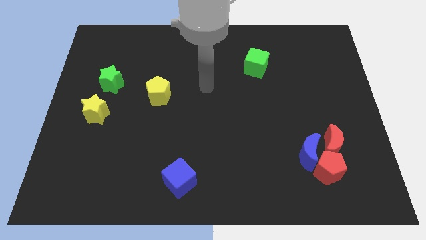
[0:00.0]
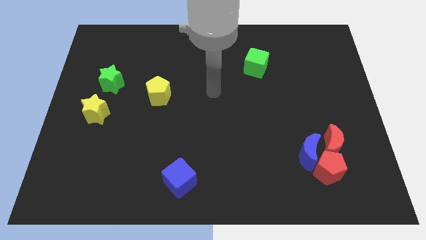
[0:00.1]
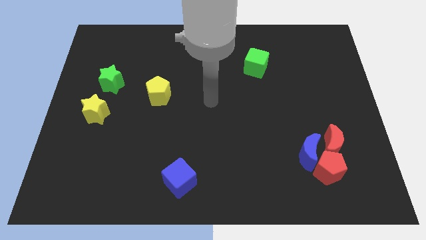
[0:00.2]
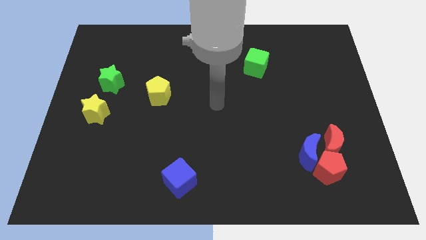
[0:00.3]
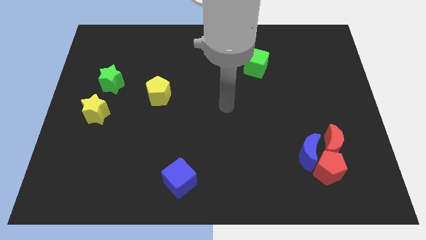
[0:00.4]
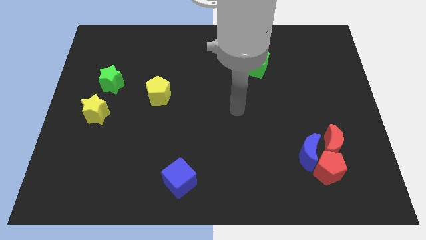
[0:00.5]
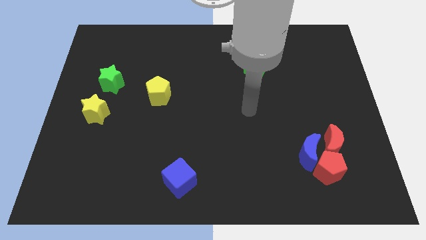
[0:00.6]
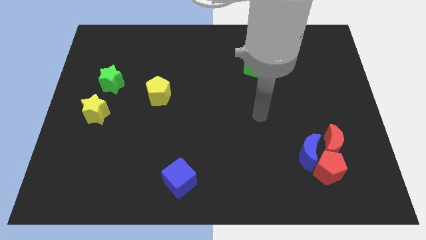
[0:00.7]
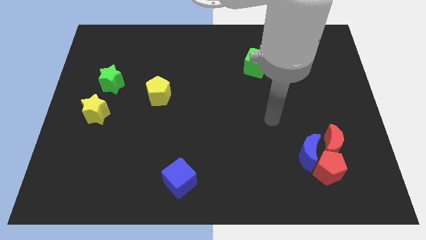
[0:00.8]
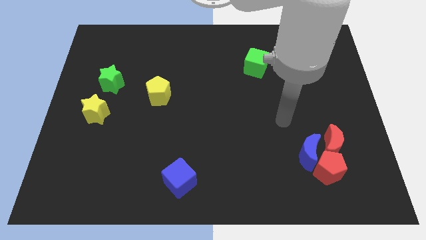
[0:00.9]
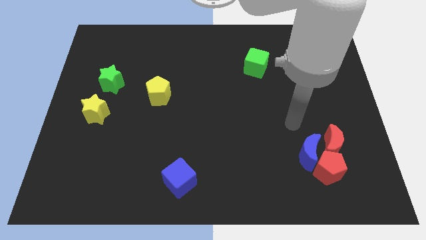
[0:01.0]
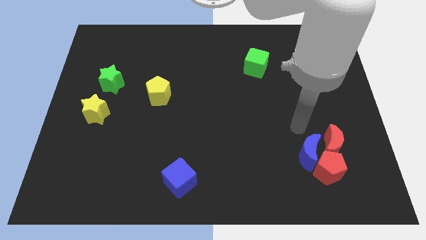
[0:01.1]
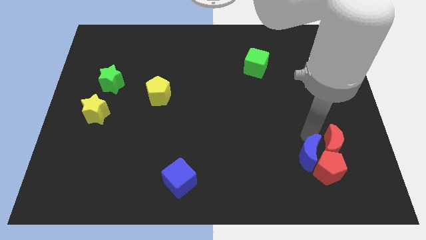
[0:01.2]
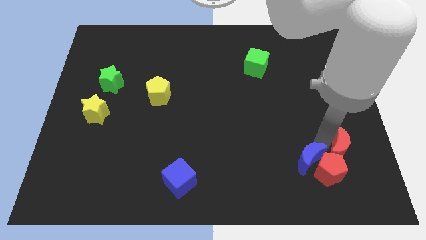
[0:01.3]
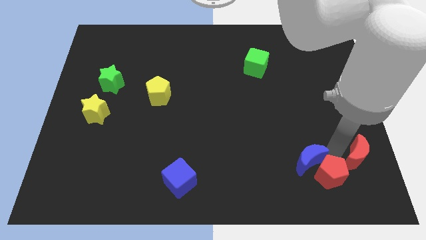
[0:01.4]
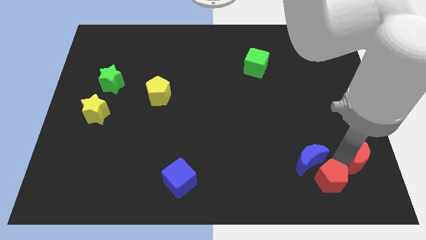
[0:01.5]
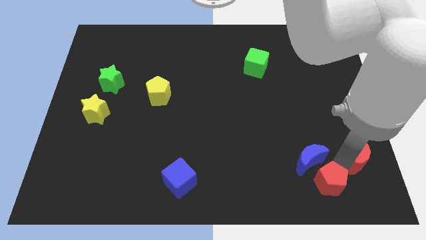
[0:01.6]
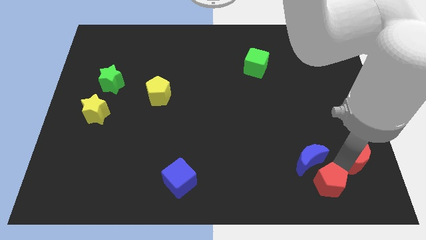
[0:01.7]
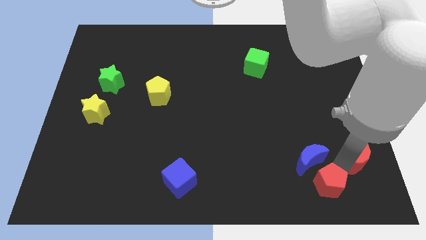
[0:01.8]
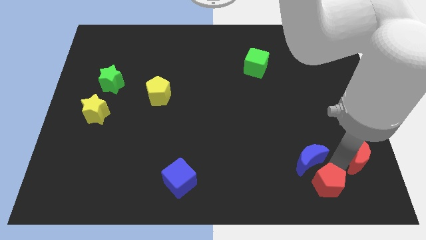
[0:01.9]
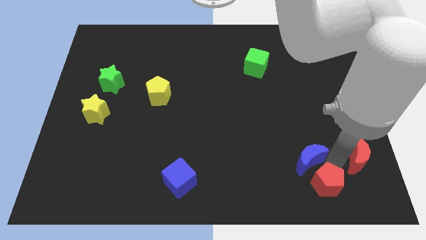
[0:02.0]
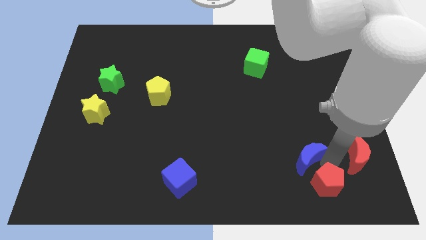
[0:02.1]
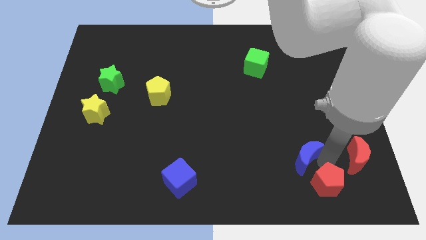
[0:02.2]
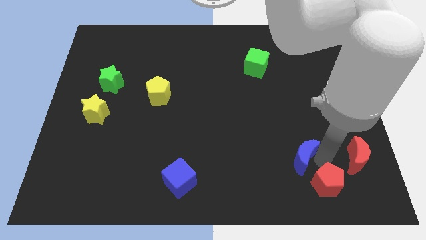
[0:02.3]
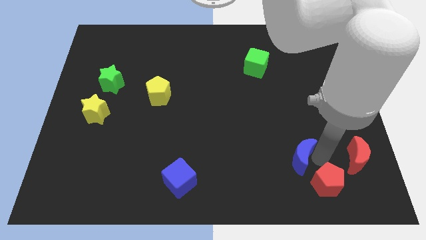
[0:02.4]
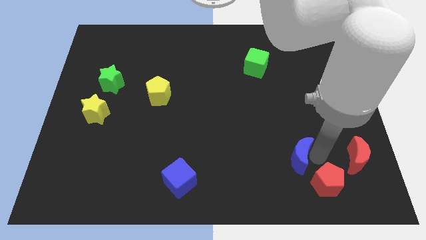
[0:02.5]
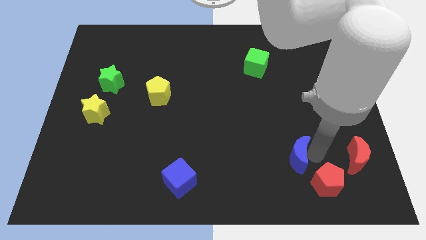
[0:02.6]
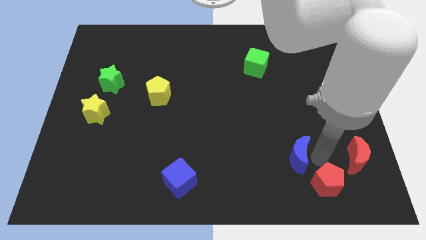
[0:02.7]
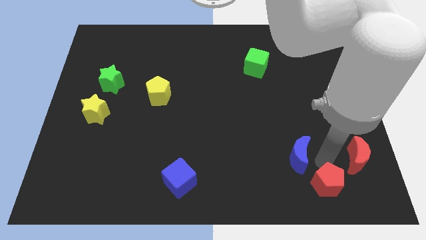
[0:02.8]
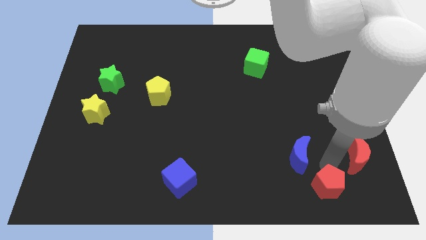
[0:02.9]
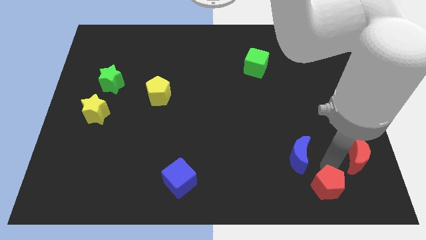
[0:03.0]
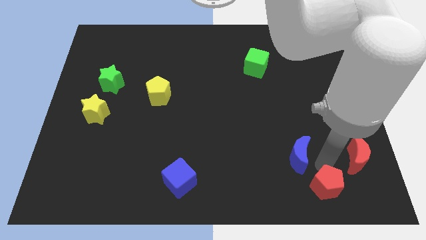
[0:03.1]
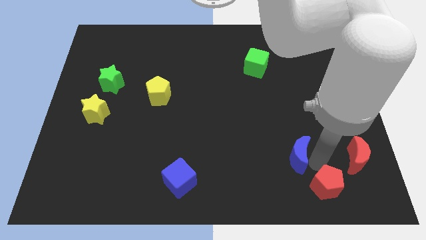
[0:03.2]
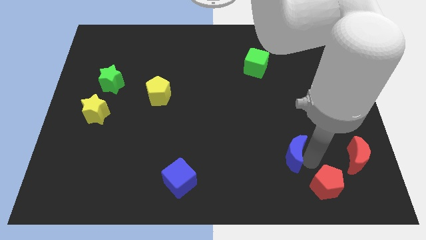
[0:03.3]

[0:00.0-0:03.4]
separate the blue moon from the red pentagon and red moon

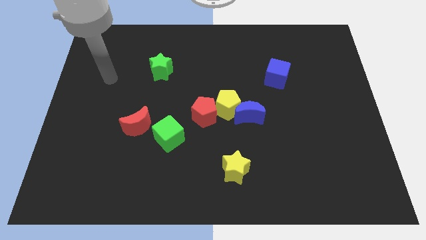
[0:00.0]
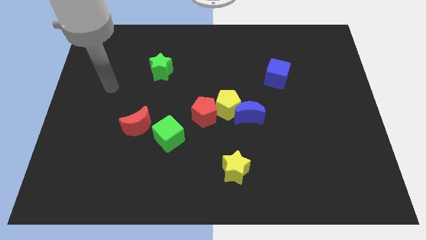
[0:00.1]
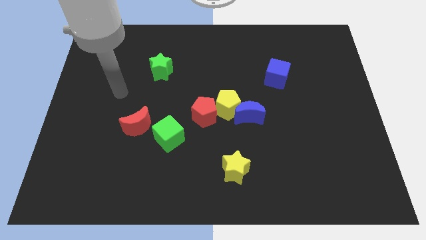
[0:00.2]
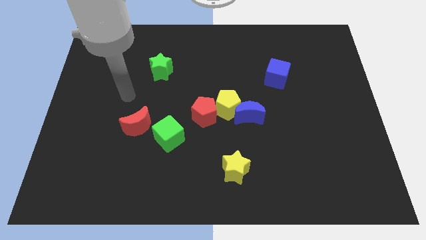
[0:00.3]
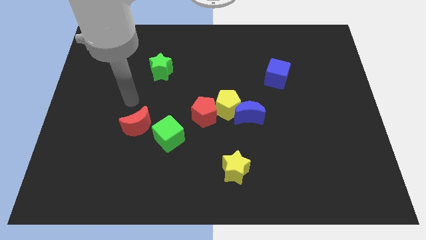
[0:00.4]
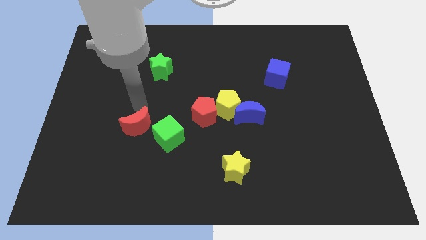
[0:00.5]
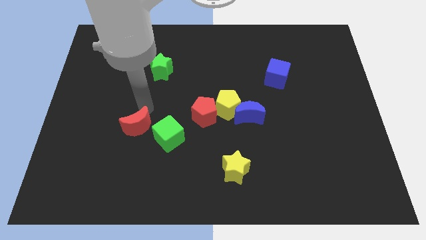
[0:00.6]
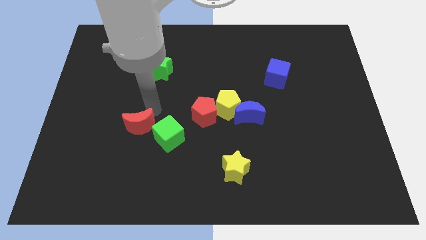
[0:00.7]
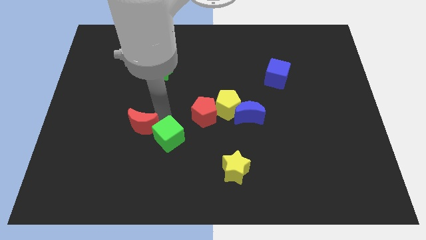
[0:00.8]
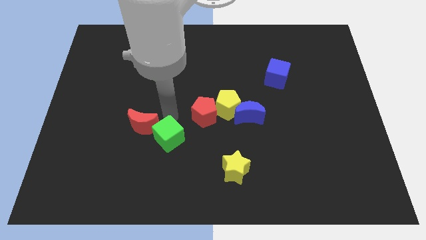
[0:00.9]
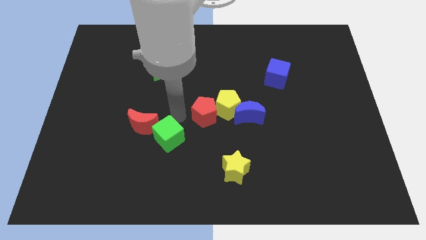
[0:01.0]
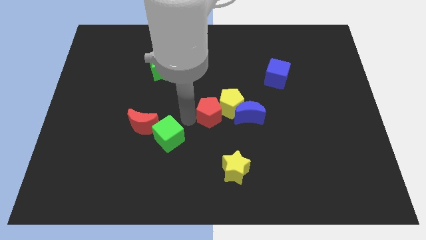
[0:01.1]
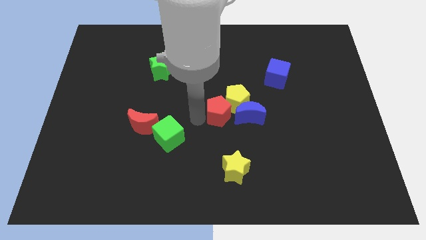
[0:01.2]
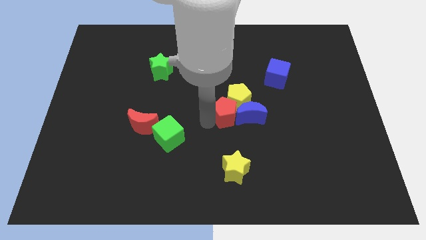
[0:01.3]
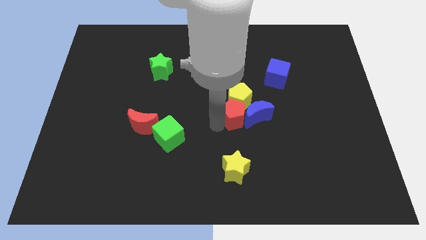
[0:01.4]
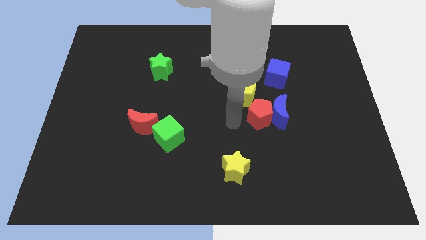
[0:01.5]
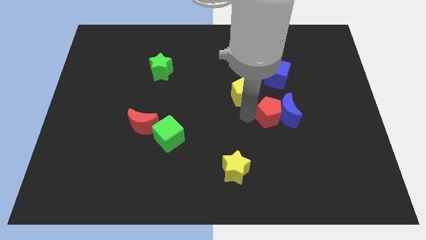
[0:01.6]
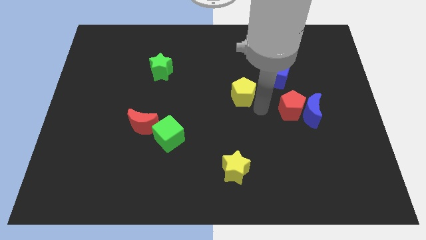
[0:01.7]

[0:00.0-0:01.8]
move the yellow pentagon away from the blue moon and red pentagon

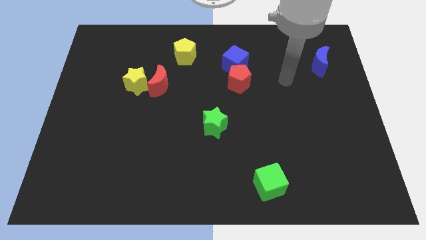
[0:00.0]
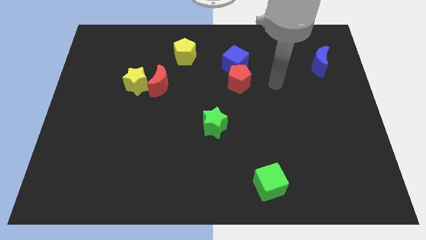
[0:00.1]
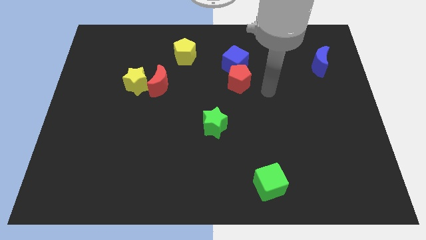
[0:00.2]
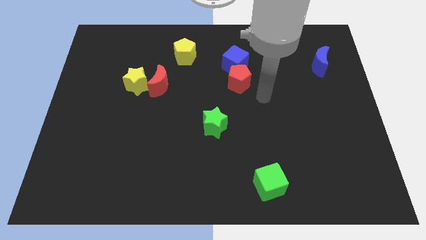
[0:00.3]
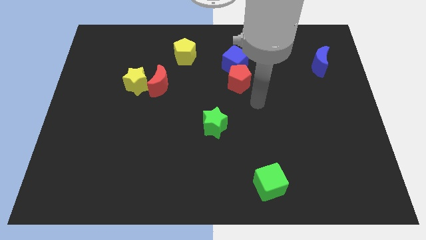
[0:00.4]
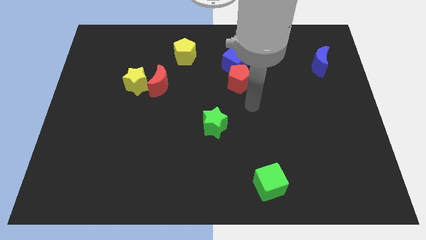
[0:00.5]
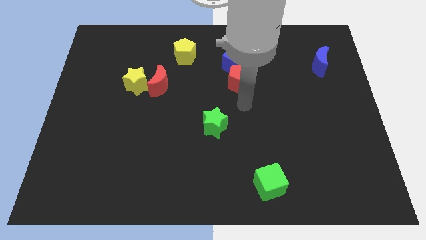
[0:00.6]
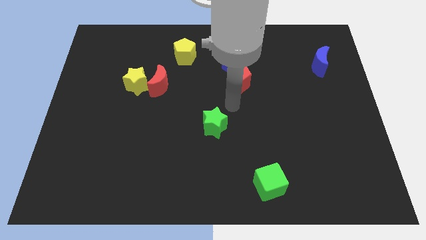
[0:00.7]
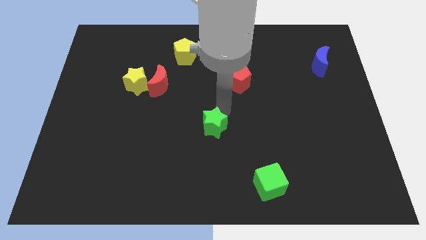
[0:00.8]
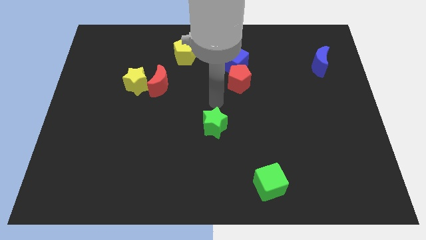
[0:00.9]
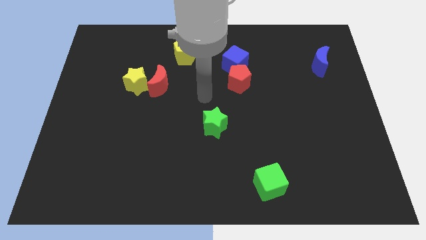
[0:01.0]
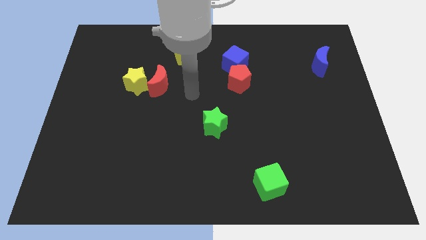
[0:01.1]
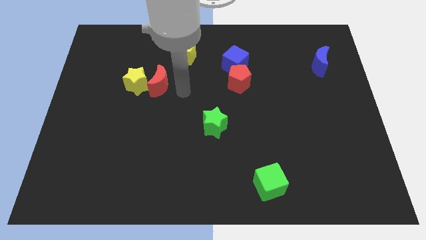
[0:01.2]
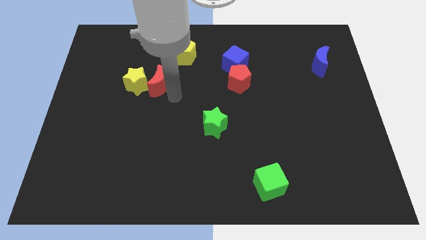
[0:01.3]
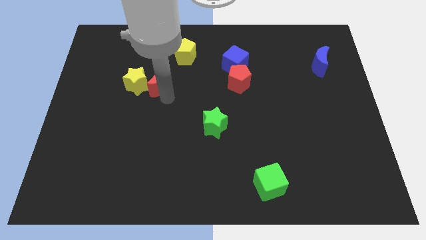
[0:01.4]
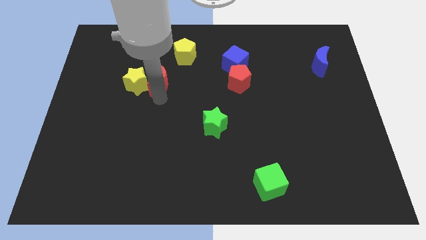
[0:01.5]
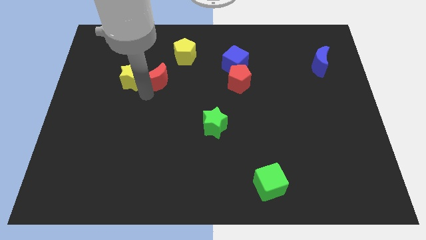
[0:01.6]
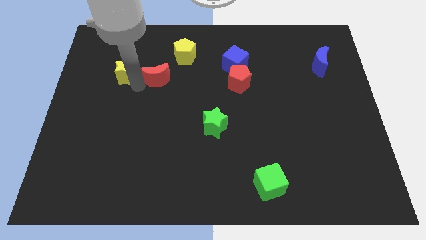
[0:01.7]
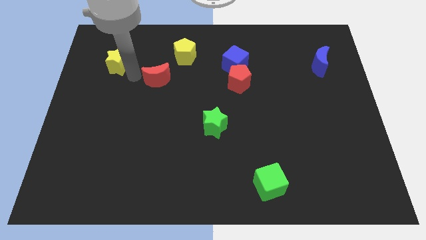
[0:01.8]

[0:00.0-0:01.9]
separate the red moon from the yellow star

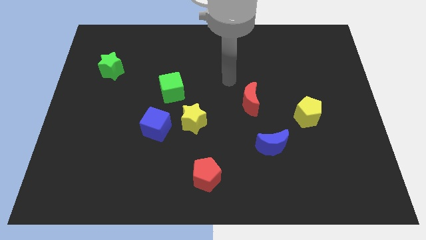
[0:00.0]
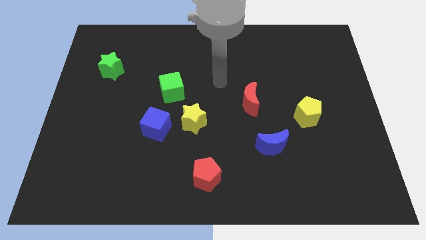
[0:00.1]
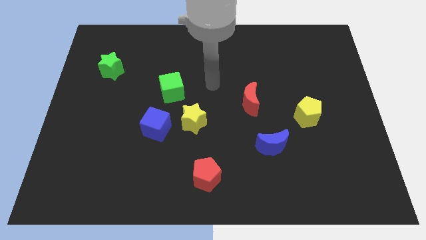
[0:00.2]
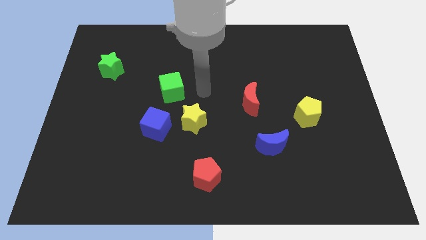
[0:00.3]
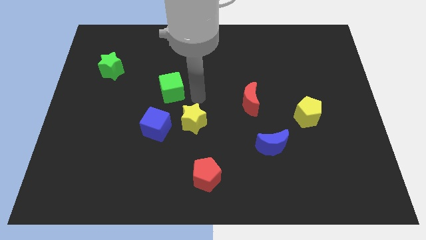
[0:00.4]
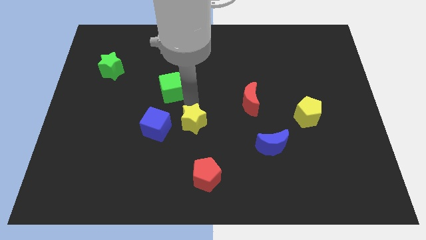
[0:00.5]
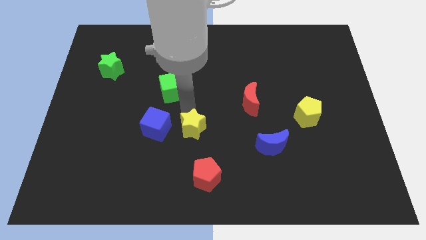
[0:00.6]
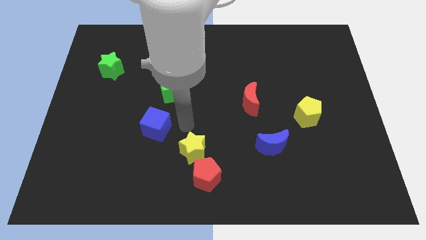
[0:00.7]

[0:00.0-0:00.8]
move the blue cube away from the yellow star

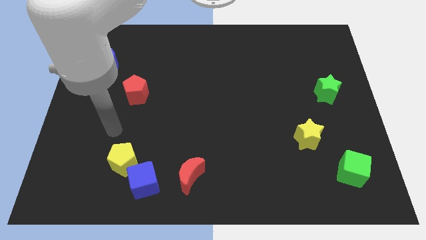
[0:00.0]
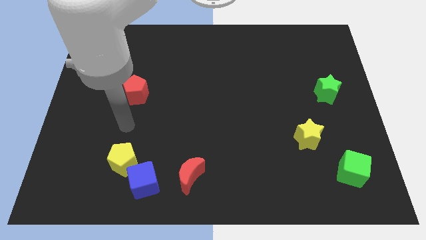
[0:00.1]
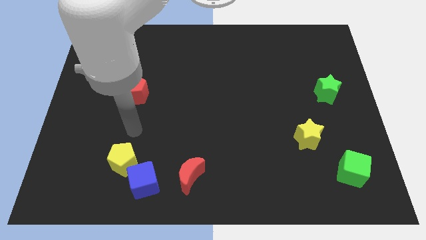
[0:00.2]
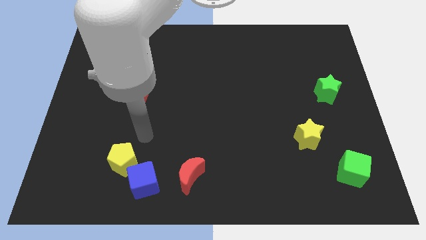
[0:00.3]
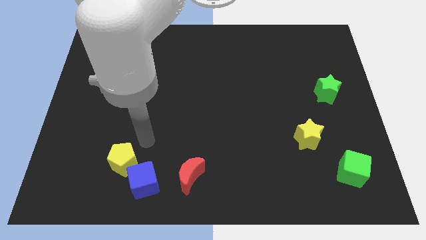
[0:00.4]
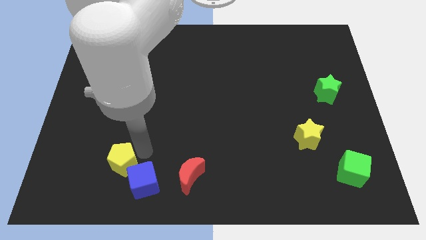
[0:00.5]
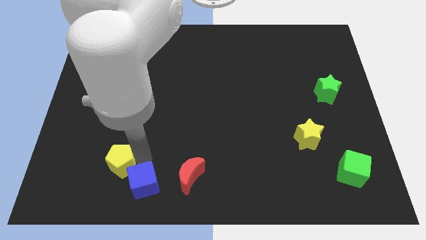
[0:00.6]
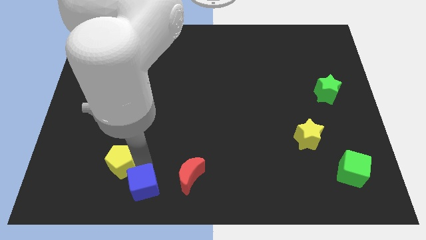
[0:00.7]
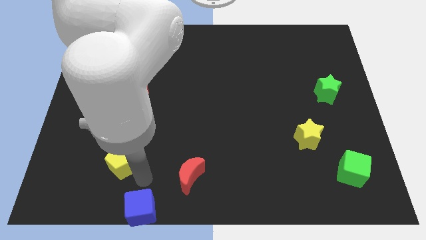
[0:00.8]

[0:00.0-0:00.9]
pull the yellow pentagon apart from the blue cube

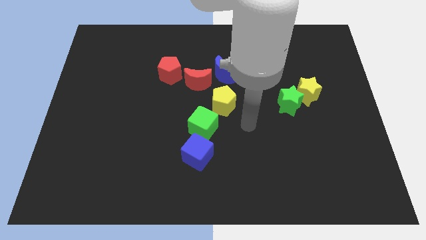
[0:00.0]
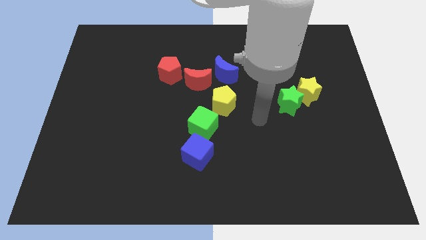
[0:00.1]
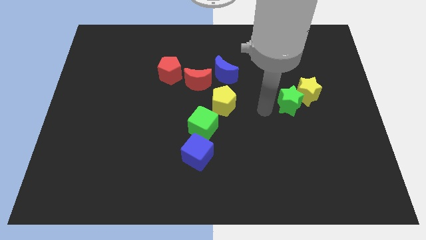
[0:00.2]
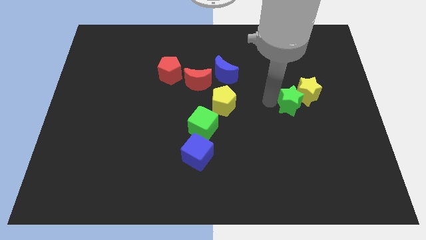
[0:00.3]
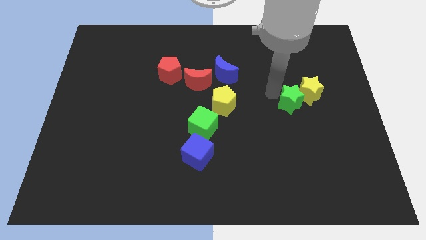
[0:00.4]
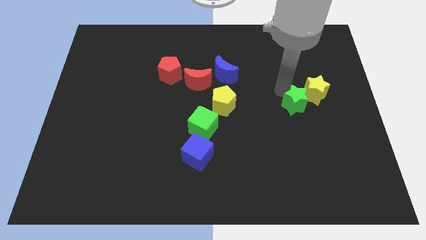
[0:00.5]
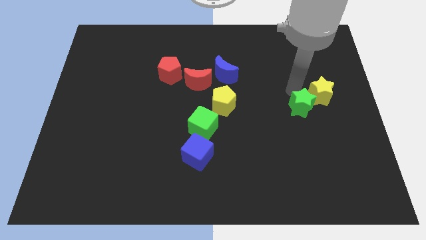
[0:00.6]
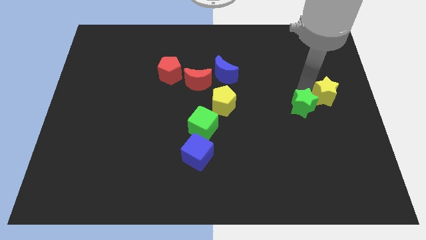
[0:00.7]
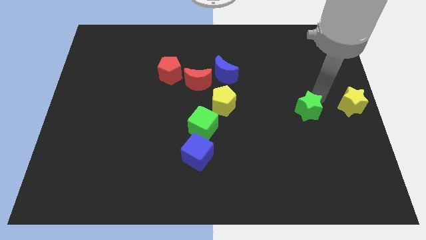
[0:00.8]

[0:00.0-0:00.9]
move the green star away from the yellow star
